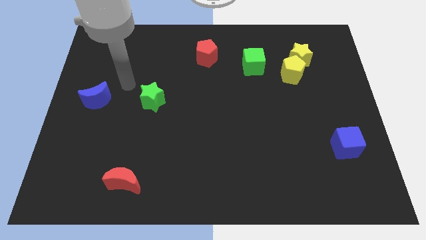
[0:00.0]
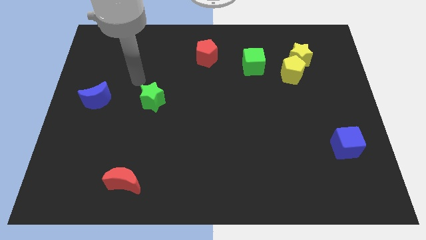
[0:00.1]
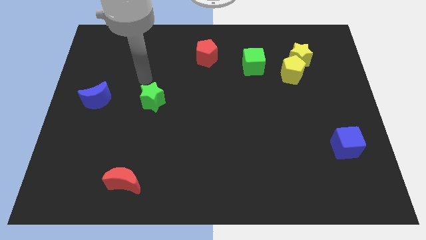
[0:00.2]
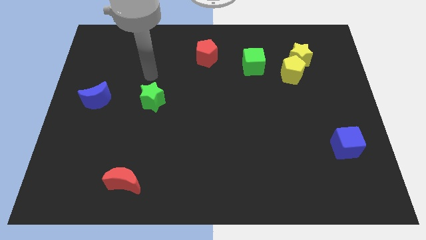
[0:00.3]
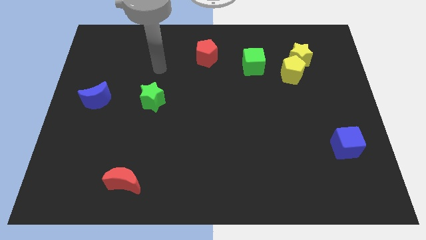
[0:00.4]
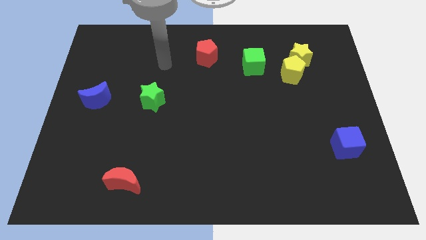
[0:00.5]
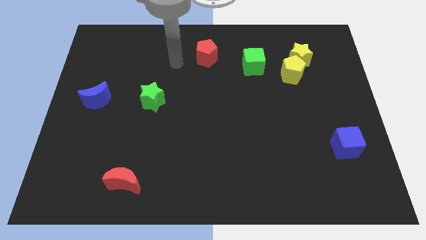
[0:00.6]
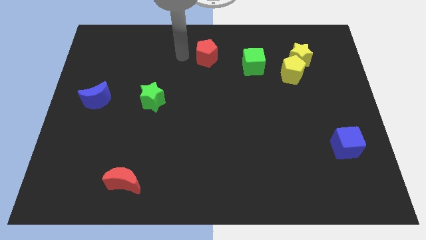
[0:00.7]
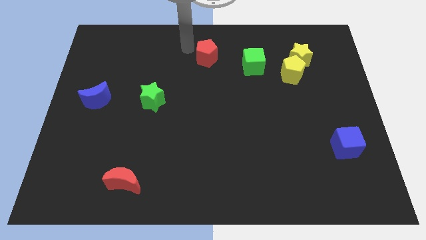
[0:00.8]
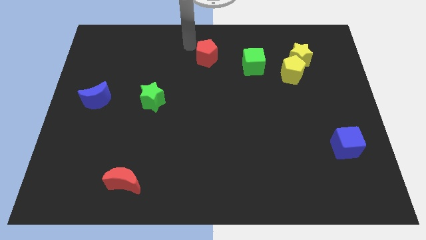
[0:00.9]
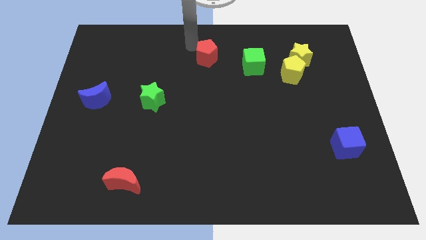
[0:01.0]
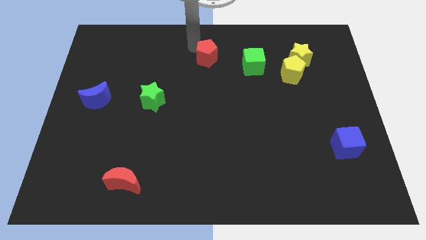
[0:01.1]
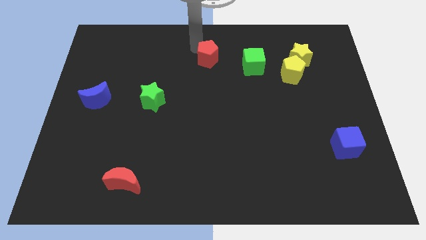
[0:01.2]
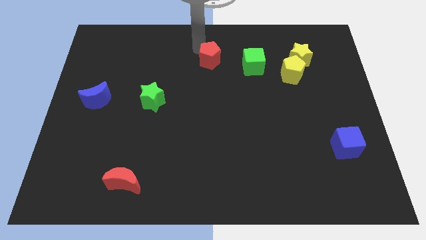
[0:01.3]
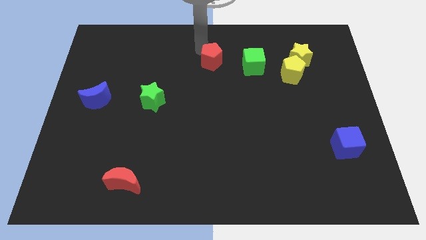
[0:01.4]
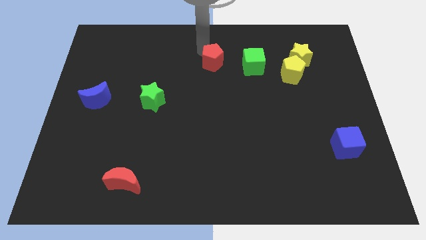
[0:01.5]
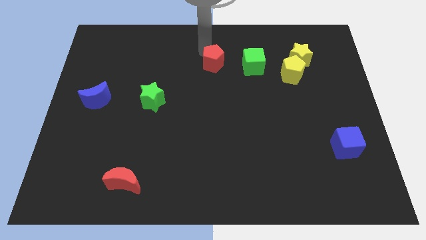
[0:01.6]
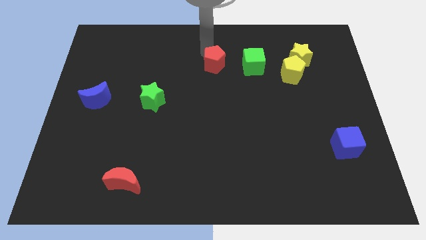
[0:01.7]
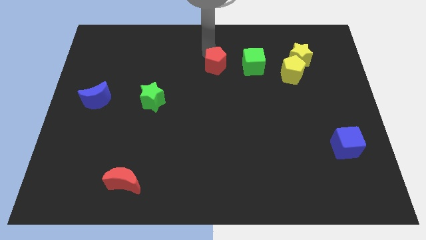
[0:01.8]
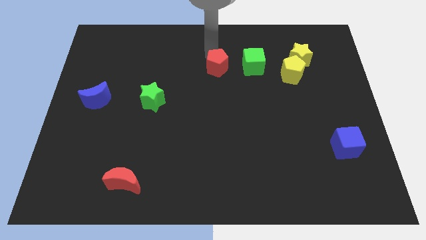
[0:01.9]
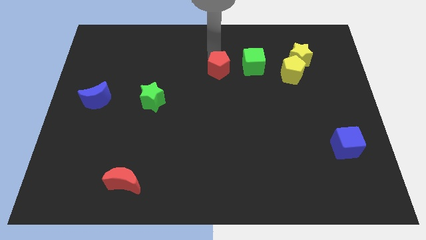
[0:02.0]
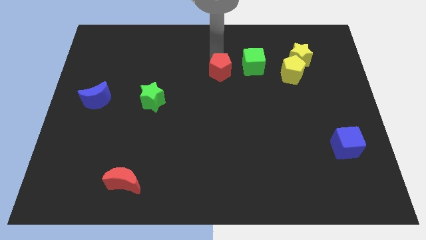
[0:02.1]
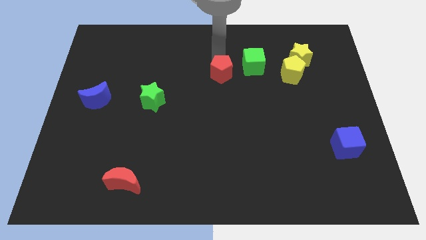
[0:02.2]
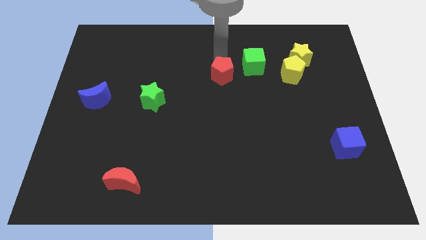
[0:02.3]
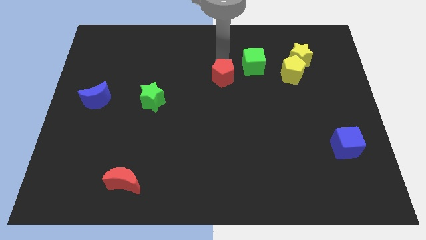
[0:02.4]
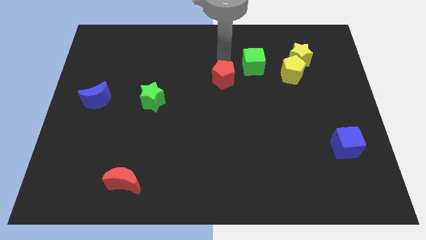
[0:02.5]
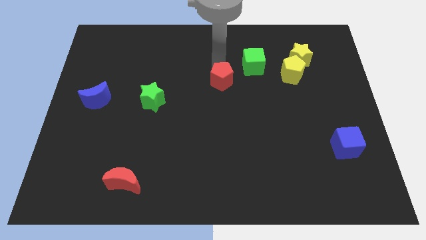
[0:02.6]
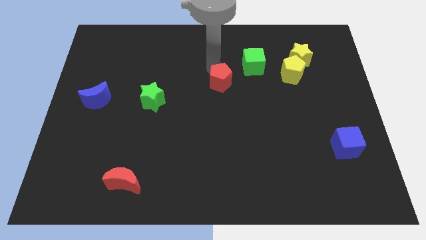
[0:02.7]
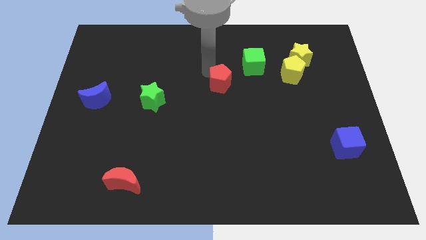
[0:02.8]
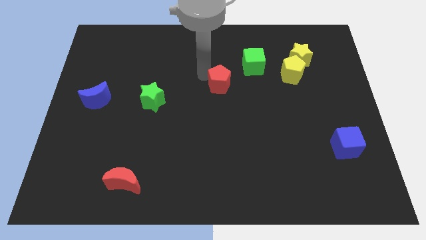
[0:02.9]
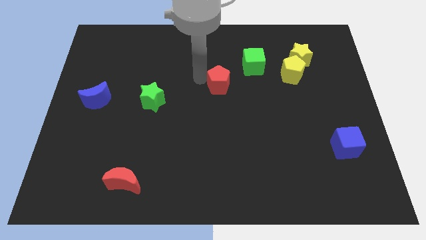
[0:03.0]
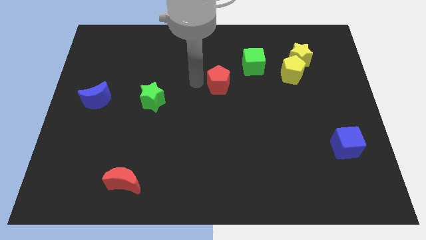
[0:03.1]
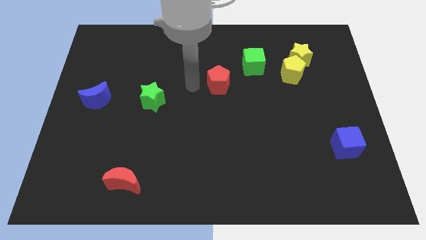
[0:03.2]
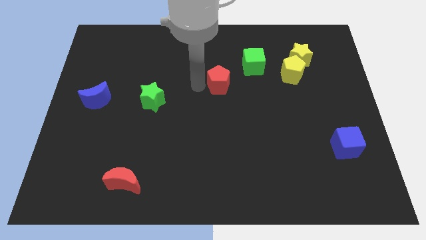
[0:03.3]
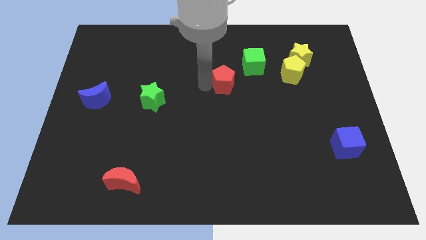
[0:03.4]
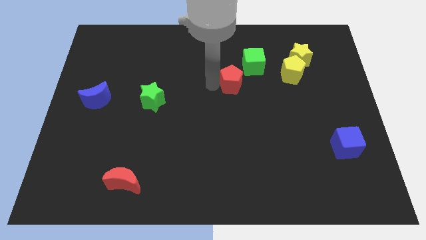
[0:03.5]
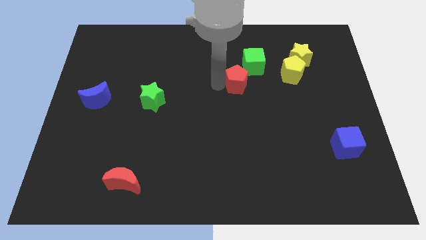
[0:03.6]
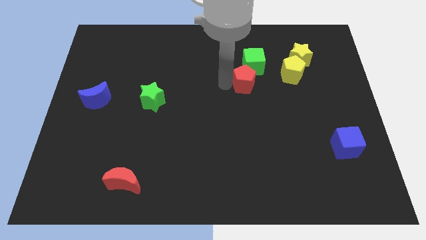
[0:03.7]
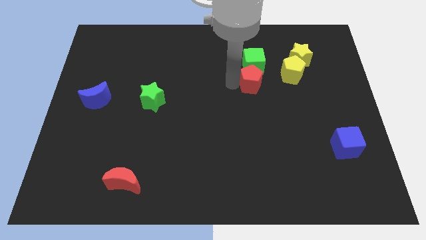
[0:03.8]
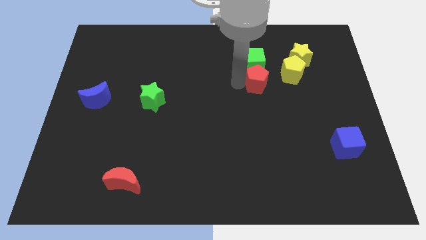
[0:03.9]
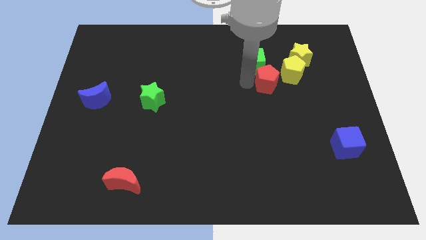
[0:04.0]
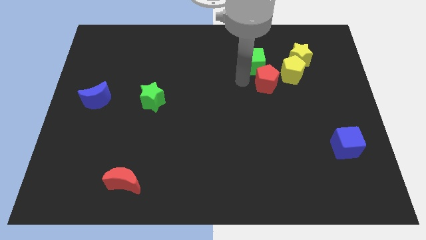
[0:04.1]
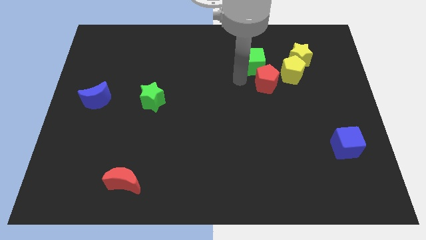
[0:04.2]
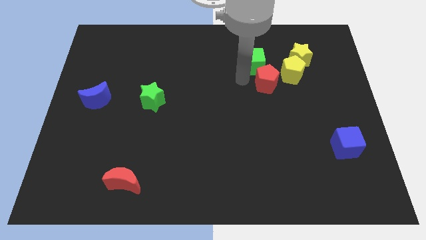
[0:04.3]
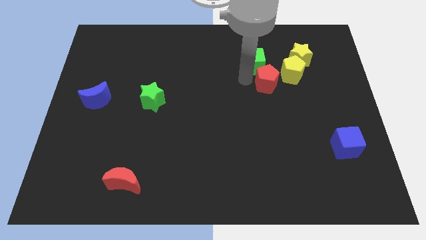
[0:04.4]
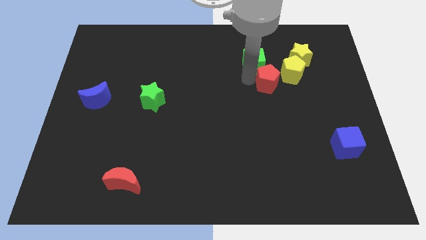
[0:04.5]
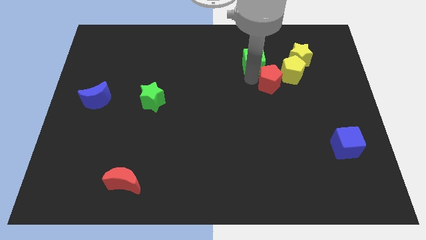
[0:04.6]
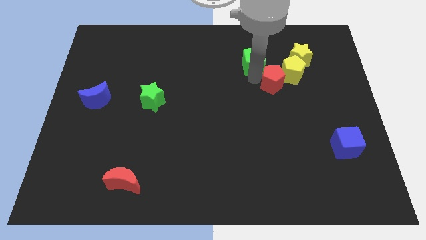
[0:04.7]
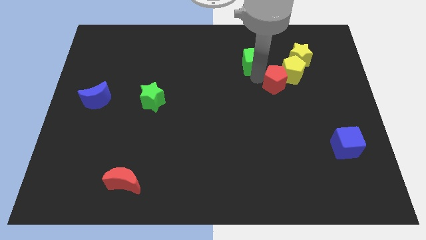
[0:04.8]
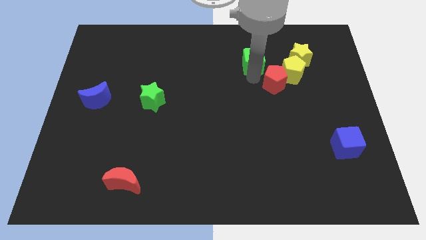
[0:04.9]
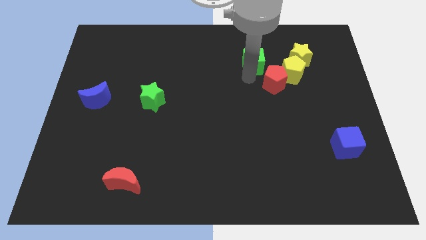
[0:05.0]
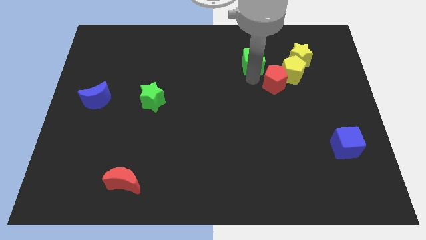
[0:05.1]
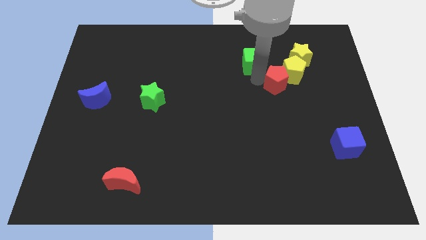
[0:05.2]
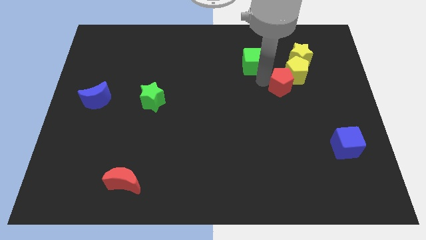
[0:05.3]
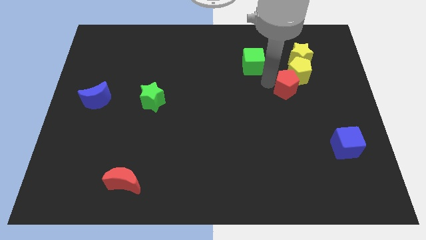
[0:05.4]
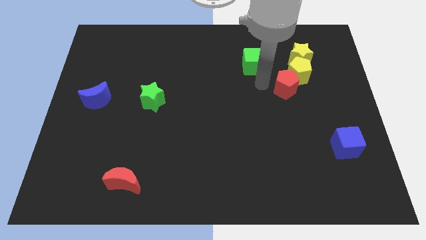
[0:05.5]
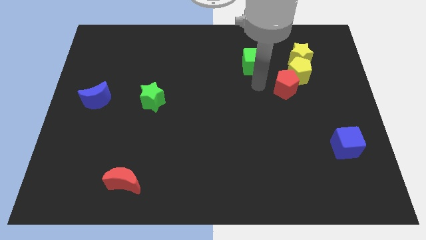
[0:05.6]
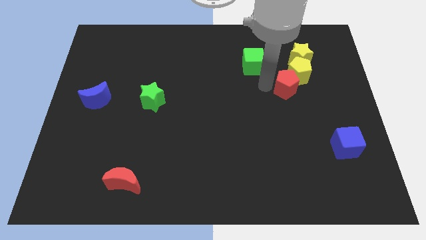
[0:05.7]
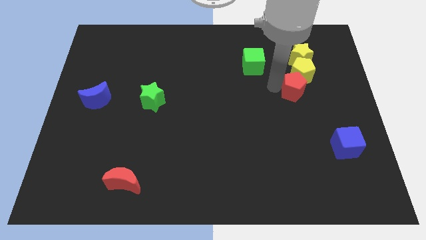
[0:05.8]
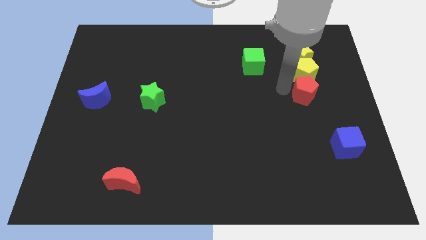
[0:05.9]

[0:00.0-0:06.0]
put the red pentagon to the bottom right of the yellow pentagon
